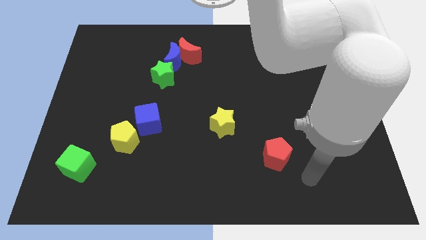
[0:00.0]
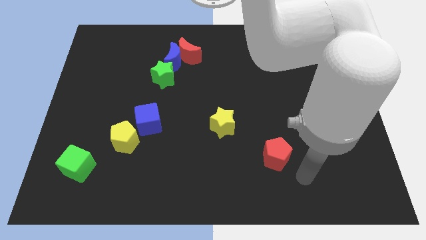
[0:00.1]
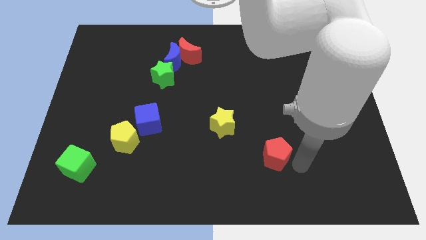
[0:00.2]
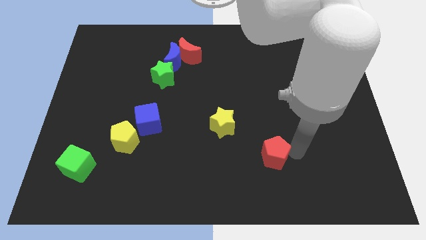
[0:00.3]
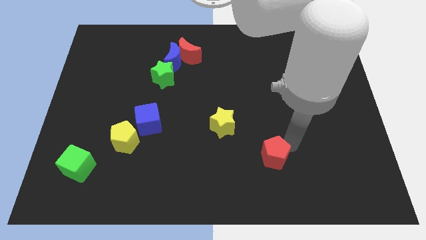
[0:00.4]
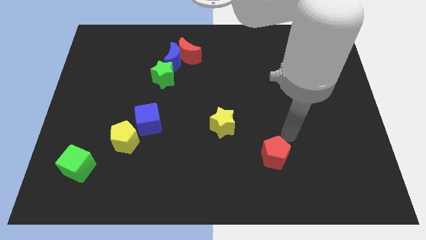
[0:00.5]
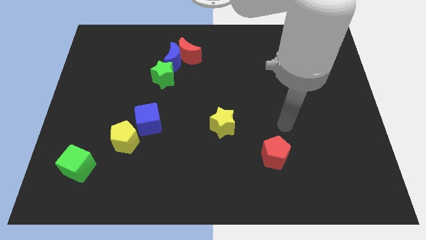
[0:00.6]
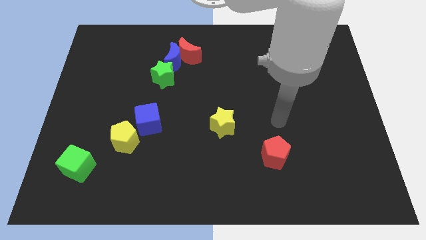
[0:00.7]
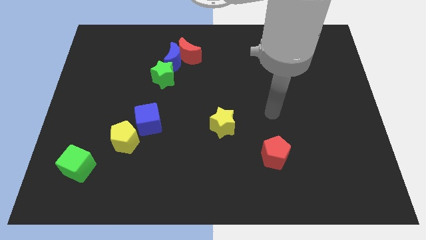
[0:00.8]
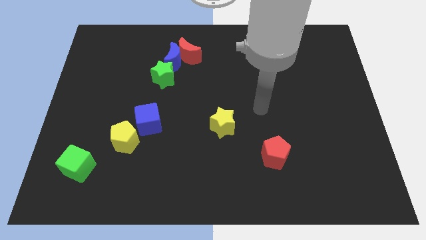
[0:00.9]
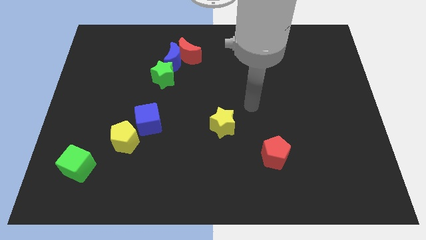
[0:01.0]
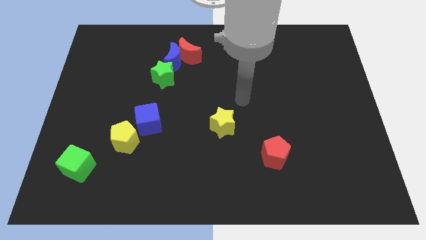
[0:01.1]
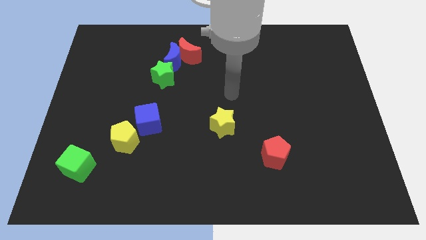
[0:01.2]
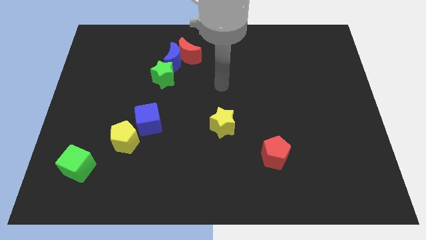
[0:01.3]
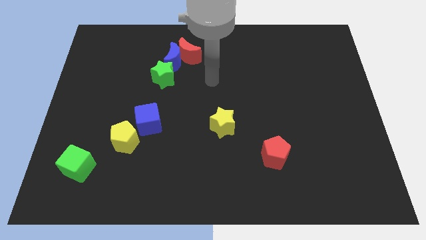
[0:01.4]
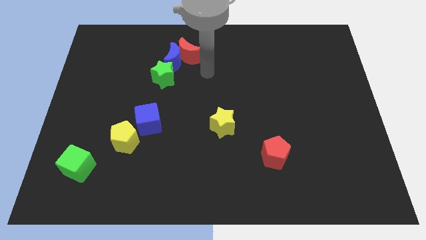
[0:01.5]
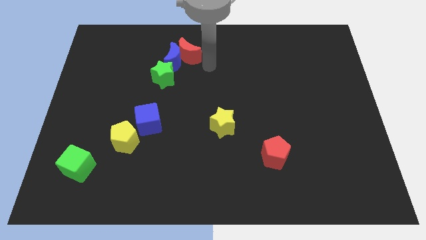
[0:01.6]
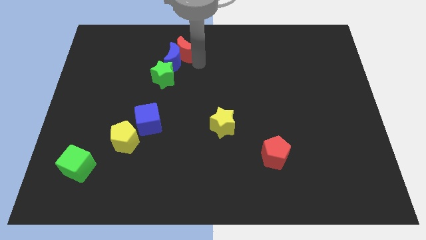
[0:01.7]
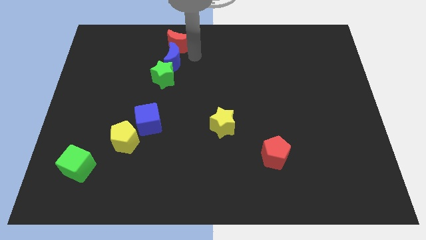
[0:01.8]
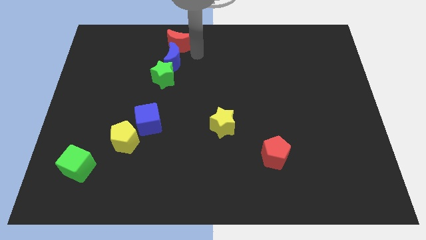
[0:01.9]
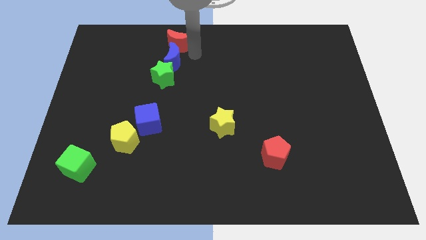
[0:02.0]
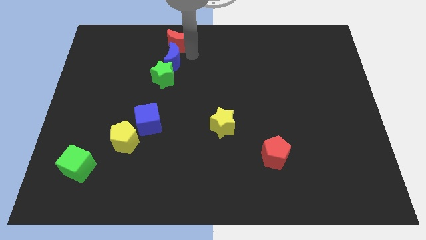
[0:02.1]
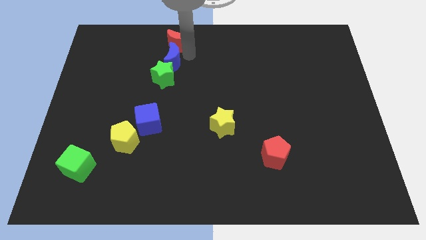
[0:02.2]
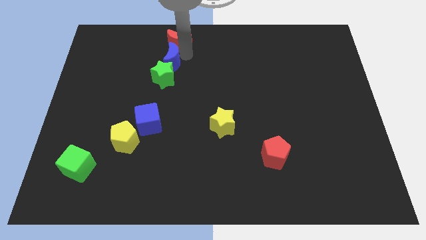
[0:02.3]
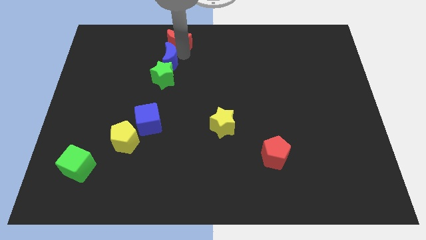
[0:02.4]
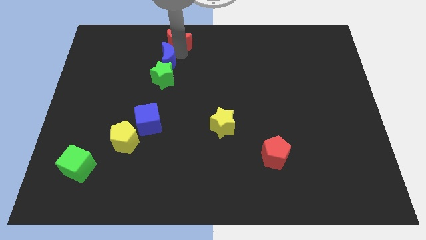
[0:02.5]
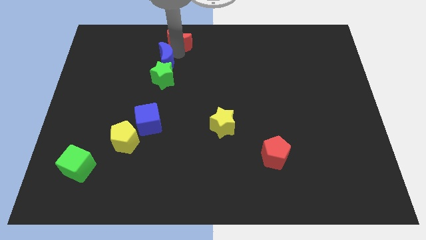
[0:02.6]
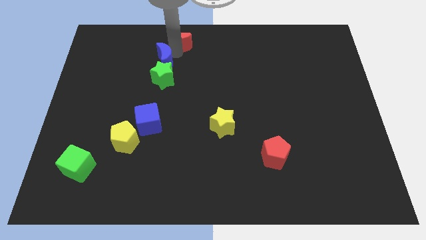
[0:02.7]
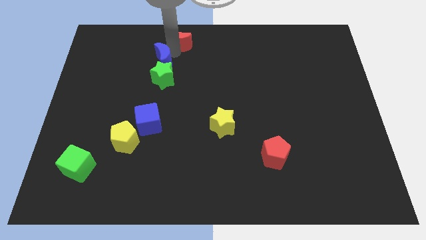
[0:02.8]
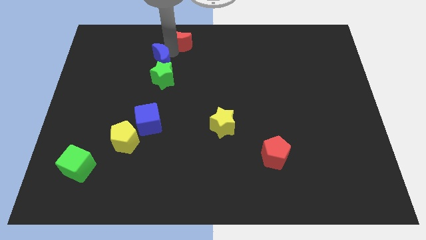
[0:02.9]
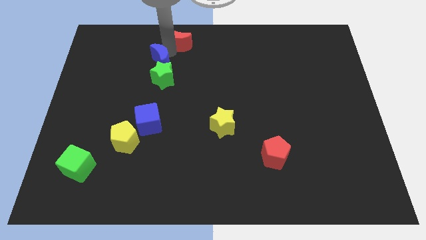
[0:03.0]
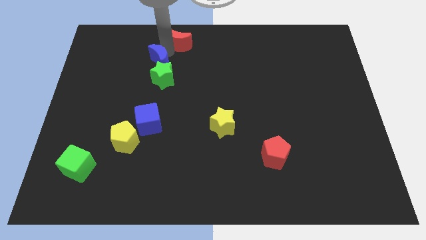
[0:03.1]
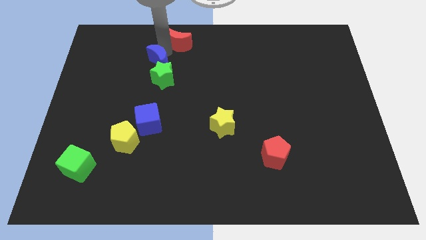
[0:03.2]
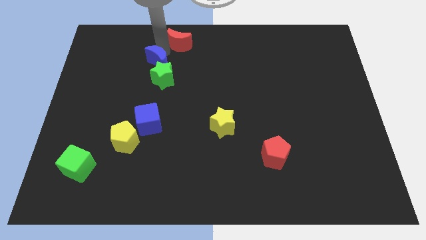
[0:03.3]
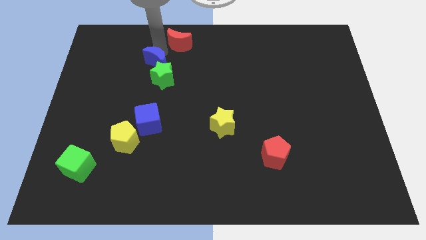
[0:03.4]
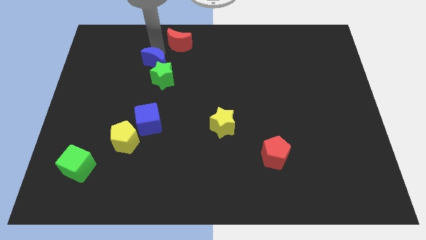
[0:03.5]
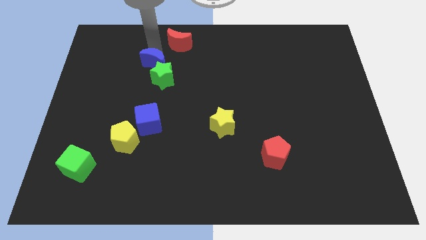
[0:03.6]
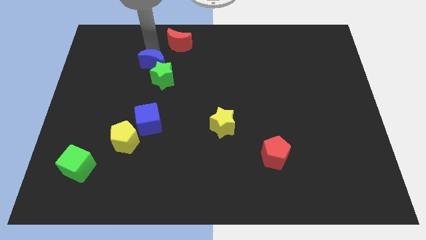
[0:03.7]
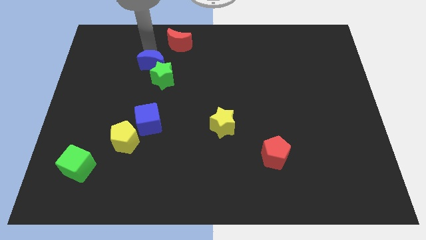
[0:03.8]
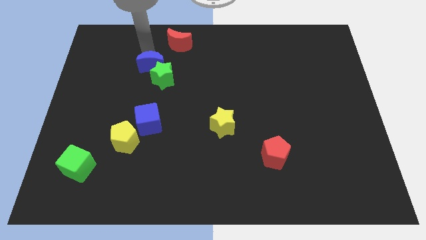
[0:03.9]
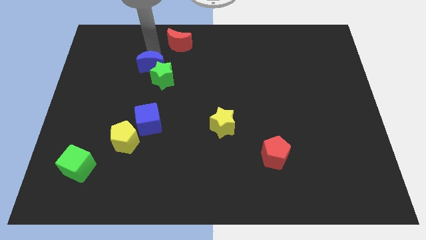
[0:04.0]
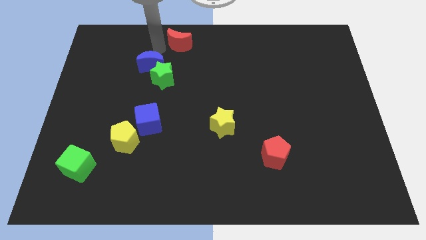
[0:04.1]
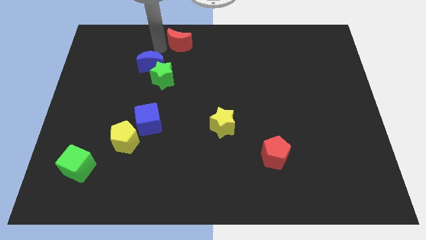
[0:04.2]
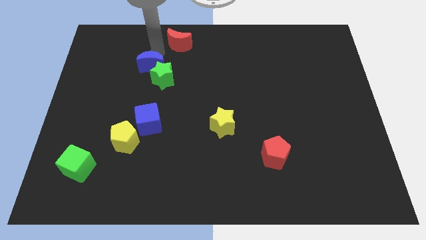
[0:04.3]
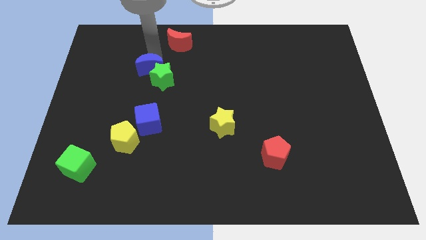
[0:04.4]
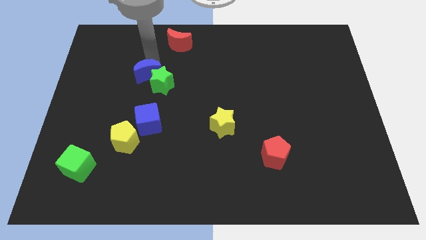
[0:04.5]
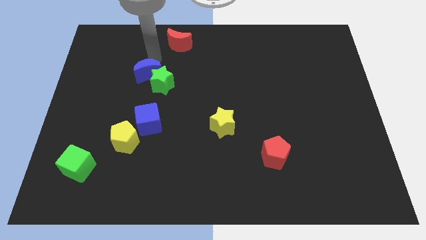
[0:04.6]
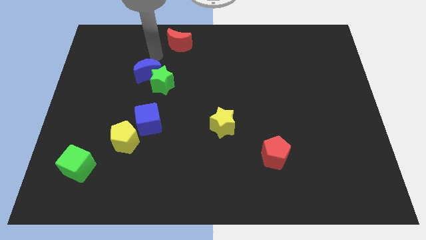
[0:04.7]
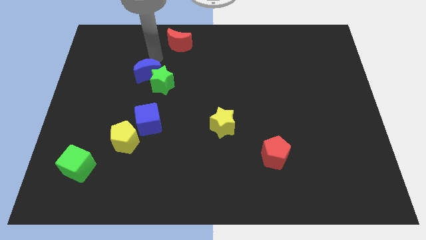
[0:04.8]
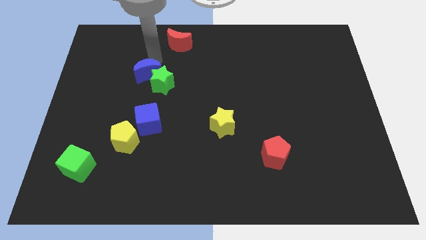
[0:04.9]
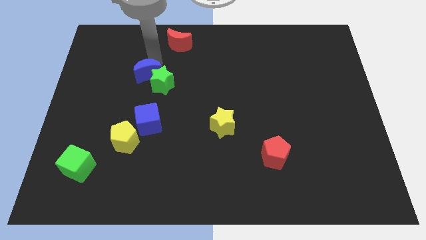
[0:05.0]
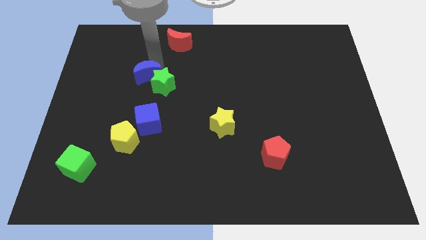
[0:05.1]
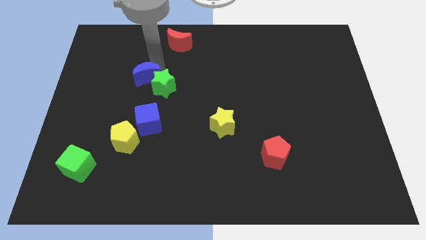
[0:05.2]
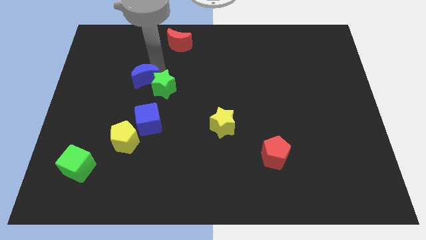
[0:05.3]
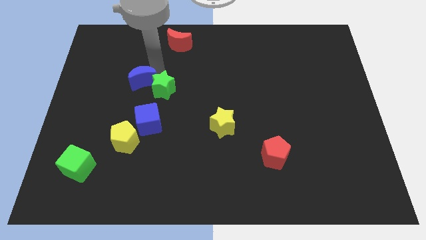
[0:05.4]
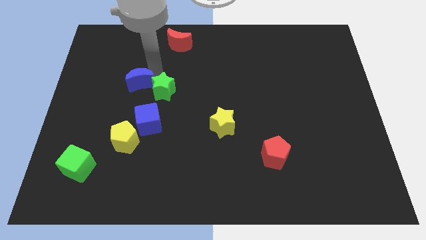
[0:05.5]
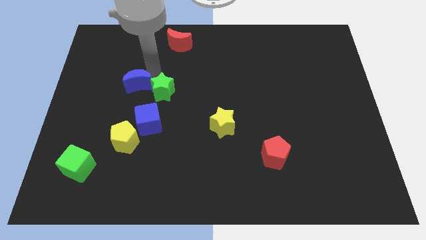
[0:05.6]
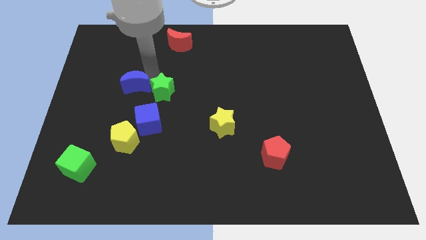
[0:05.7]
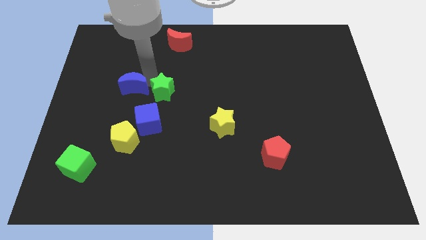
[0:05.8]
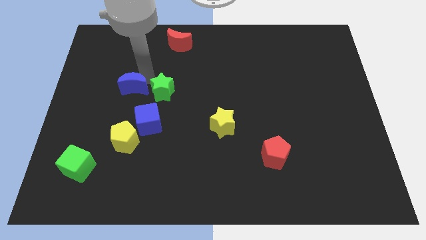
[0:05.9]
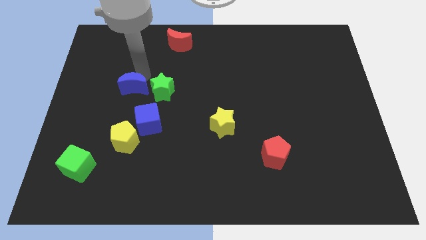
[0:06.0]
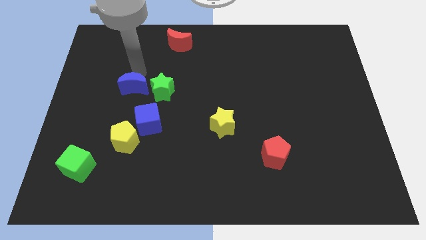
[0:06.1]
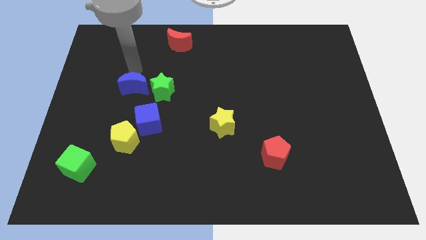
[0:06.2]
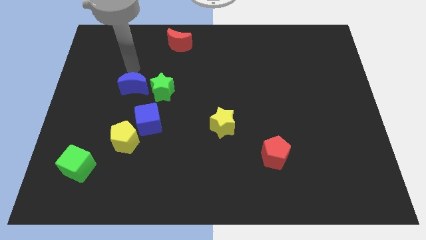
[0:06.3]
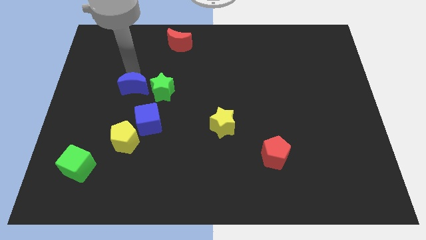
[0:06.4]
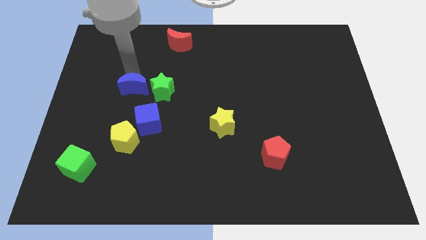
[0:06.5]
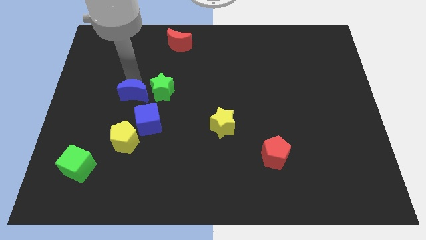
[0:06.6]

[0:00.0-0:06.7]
slide the blue moon to the bottom left of the green star
